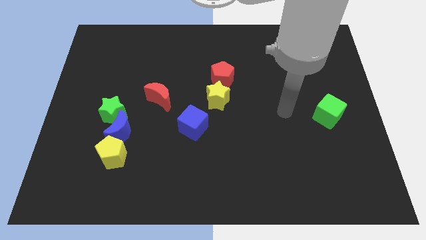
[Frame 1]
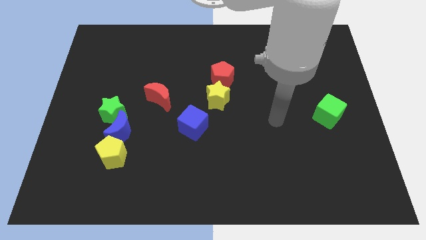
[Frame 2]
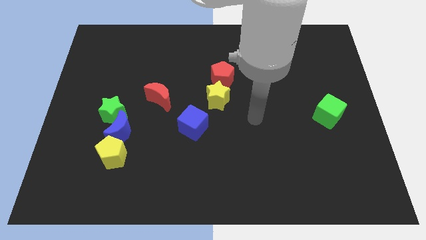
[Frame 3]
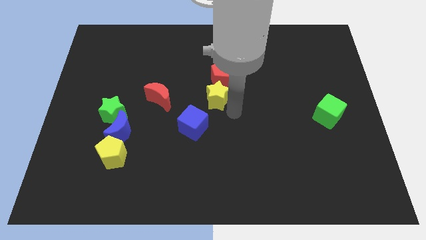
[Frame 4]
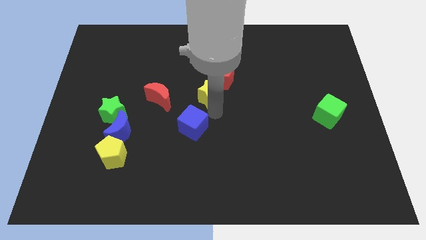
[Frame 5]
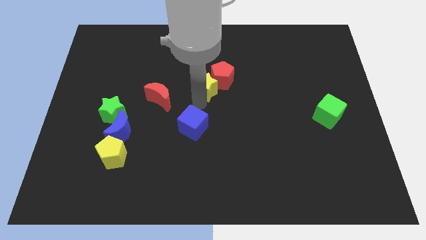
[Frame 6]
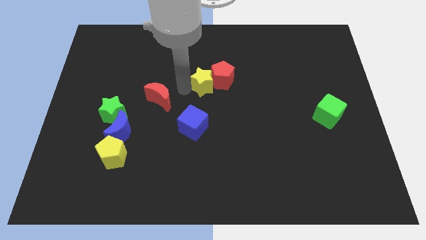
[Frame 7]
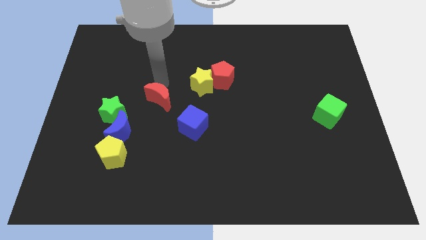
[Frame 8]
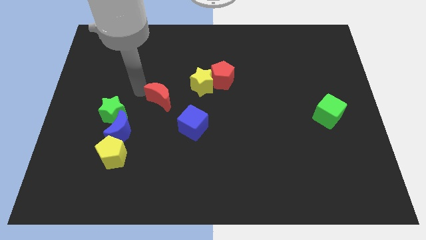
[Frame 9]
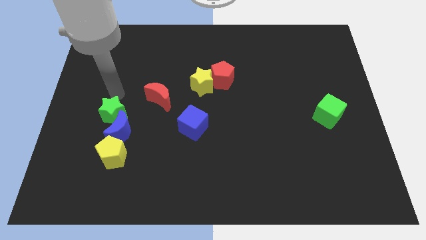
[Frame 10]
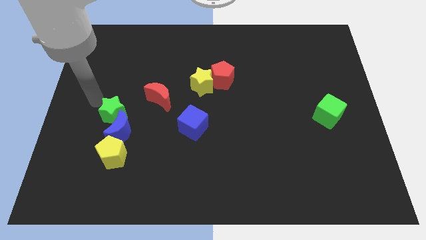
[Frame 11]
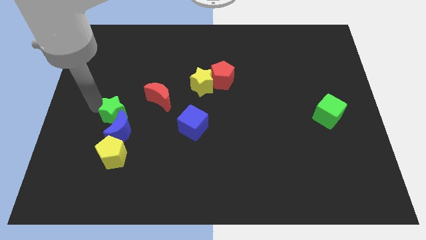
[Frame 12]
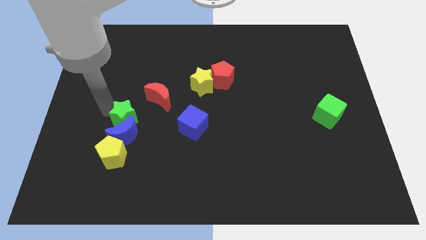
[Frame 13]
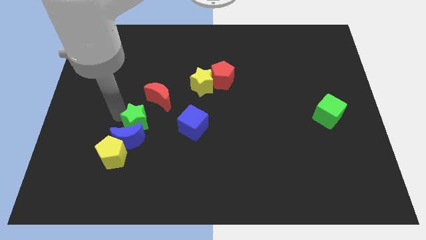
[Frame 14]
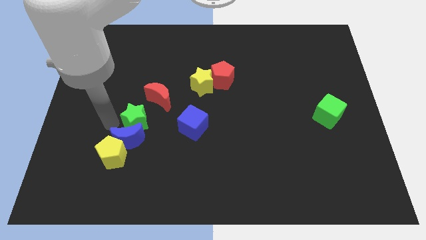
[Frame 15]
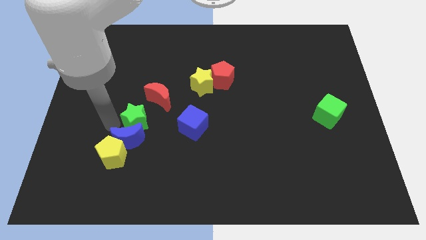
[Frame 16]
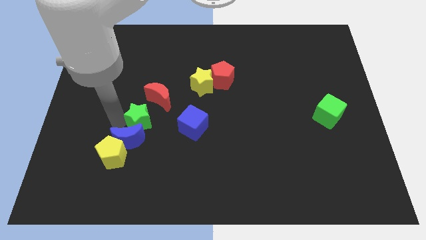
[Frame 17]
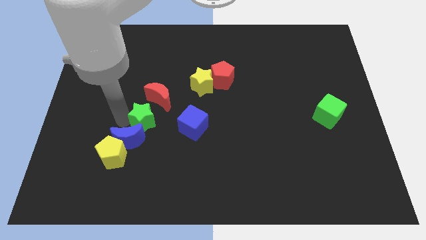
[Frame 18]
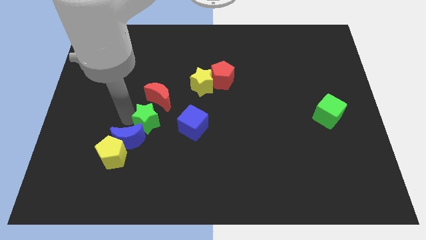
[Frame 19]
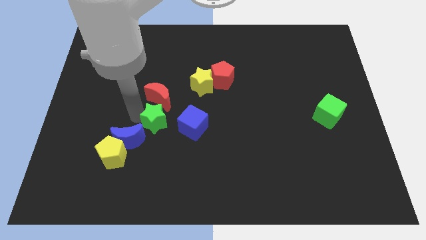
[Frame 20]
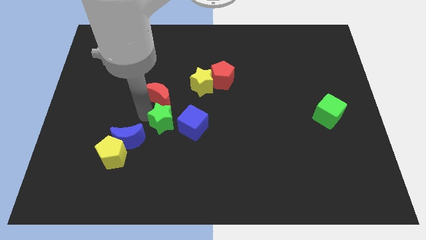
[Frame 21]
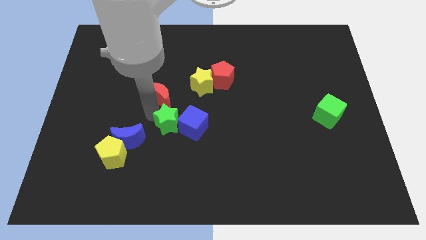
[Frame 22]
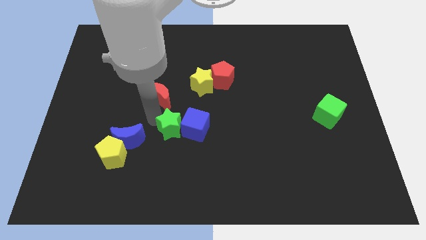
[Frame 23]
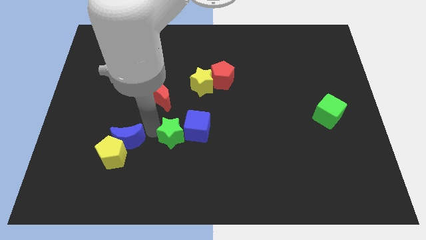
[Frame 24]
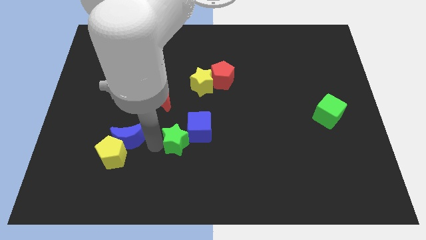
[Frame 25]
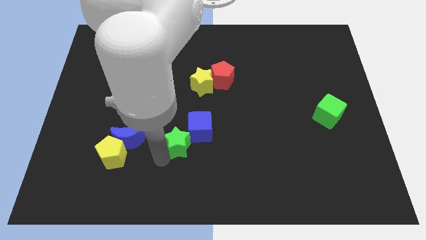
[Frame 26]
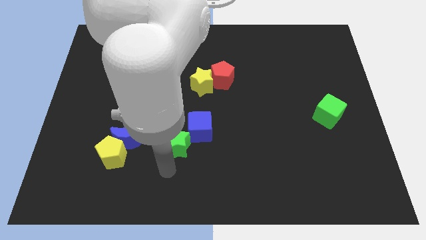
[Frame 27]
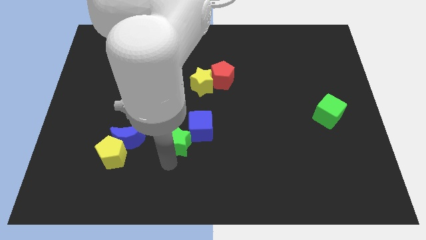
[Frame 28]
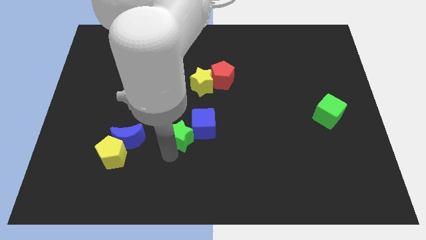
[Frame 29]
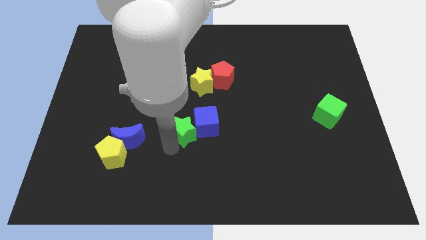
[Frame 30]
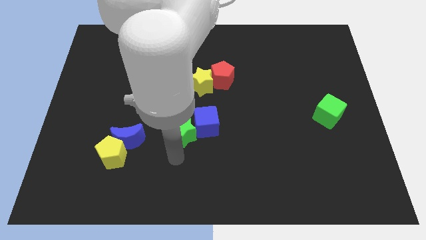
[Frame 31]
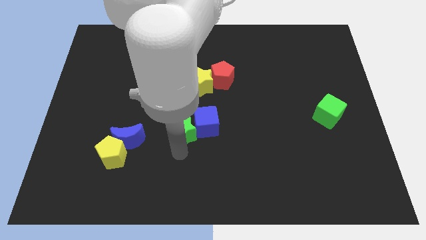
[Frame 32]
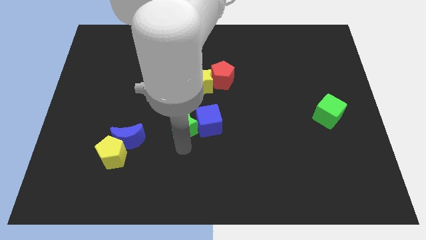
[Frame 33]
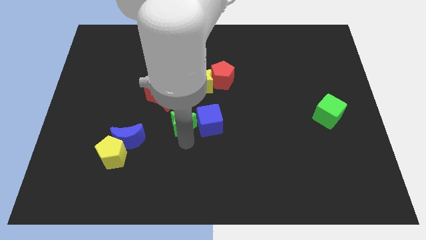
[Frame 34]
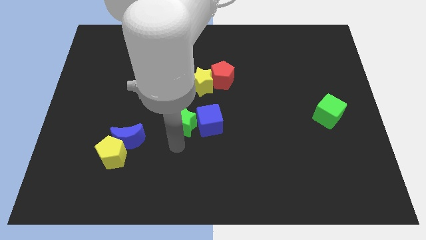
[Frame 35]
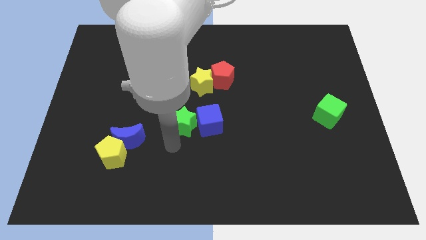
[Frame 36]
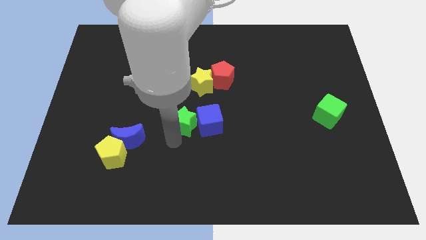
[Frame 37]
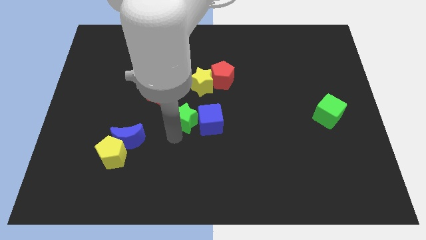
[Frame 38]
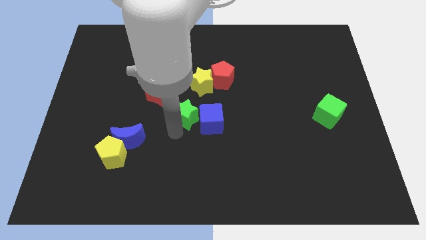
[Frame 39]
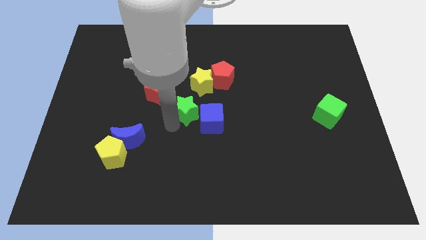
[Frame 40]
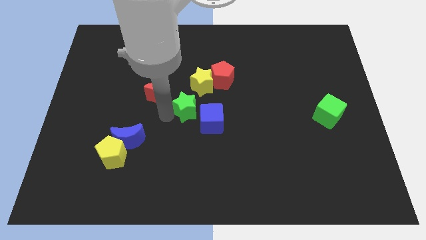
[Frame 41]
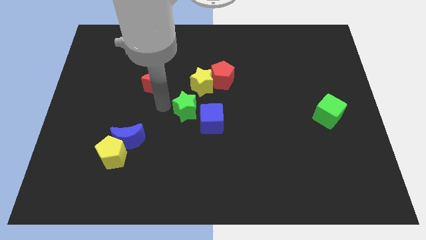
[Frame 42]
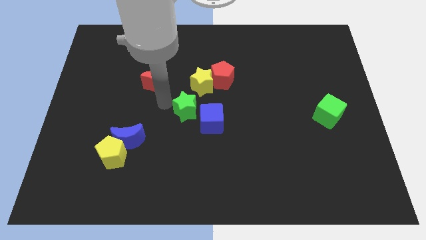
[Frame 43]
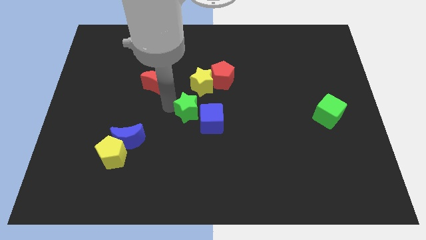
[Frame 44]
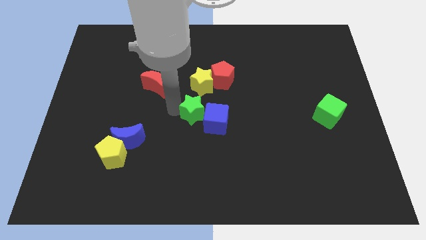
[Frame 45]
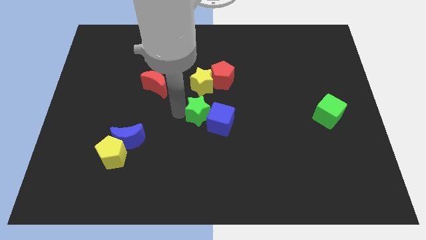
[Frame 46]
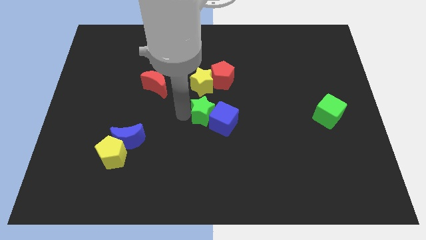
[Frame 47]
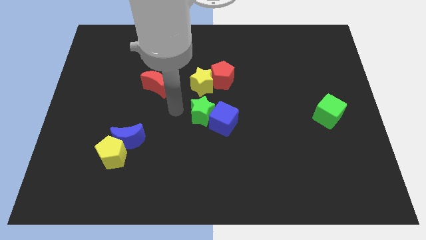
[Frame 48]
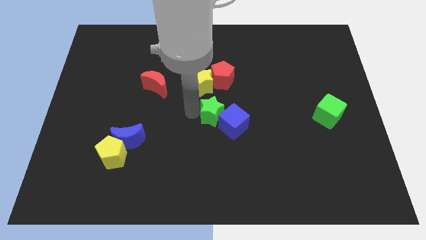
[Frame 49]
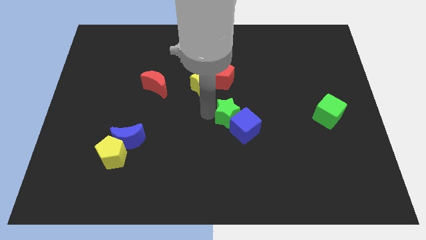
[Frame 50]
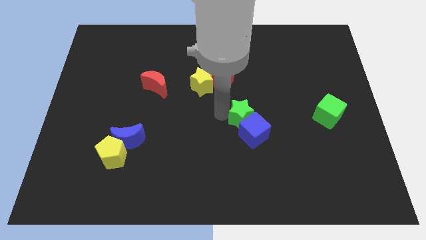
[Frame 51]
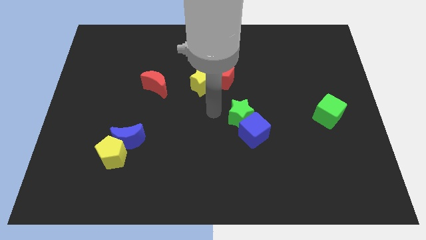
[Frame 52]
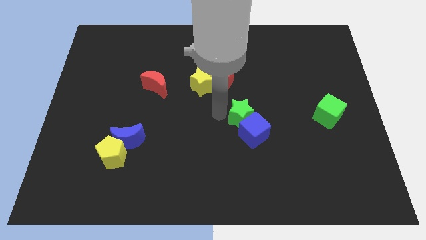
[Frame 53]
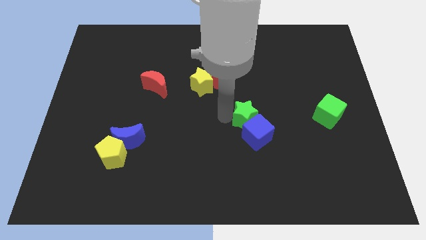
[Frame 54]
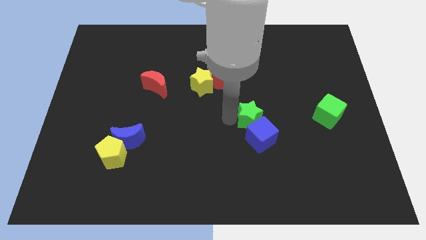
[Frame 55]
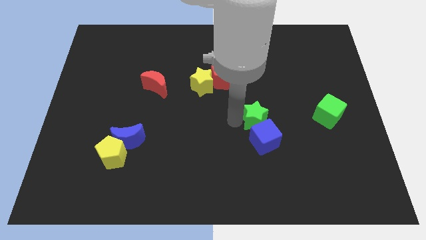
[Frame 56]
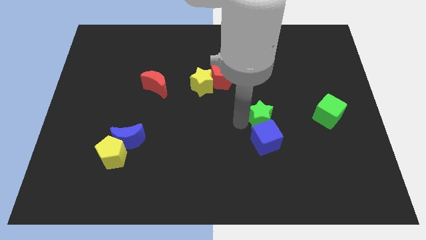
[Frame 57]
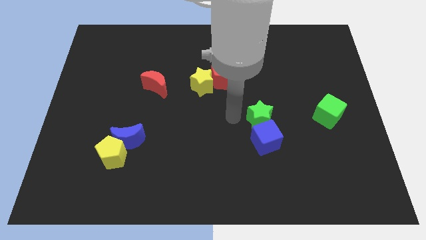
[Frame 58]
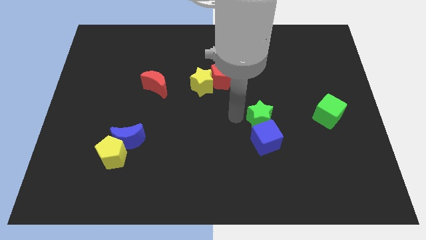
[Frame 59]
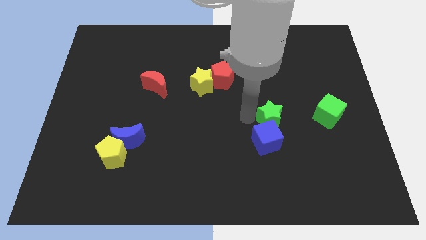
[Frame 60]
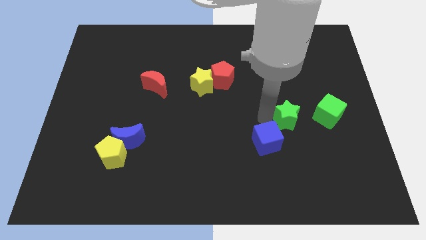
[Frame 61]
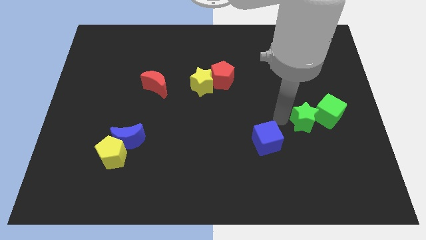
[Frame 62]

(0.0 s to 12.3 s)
move the green star towards the green cube

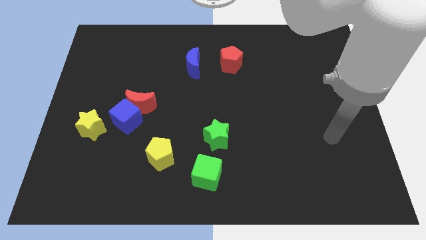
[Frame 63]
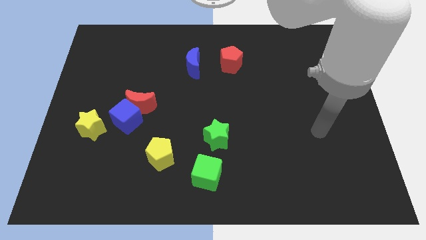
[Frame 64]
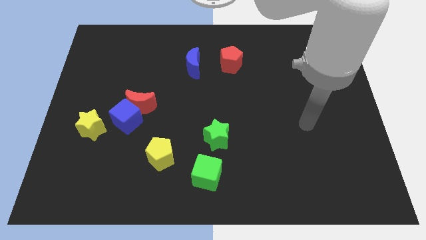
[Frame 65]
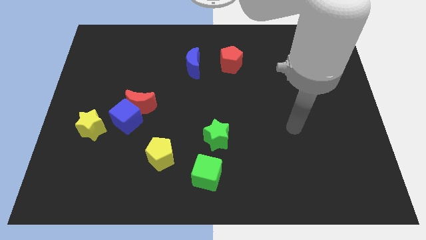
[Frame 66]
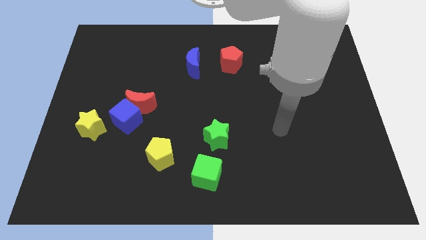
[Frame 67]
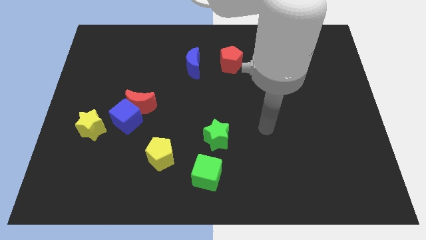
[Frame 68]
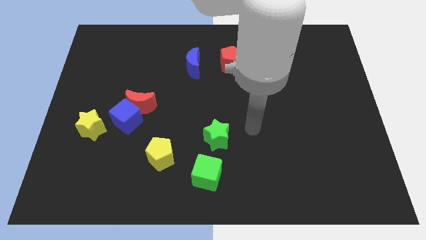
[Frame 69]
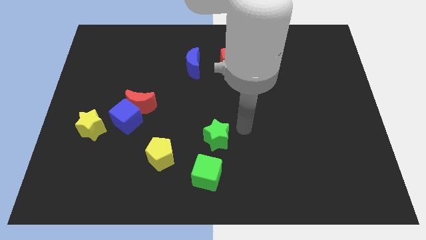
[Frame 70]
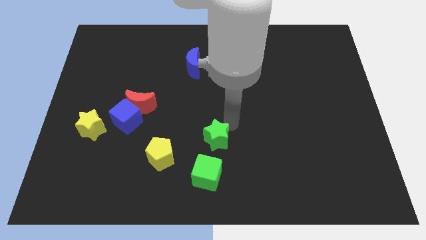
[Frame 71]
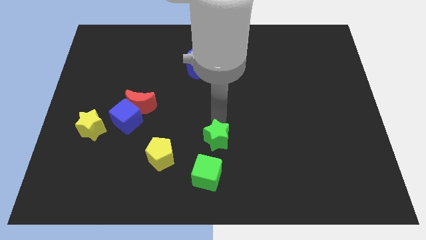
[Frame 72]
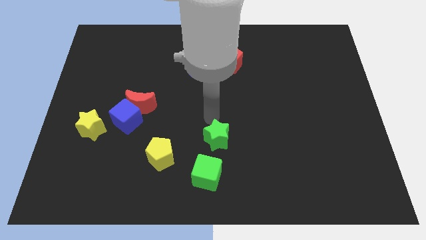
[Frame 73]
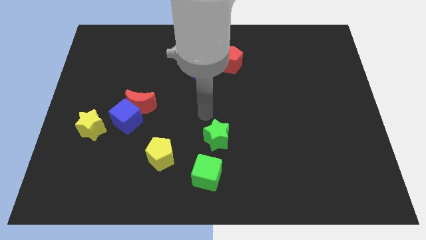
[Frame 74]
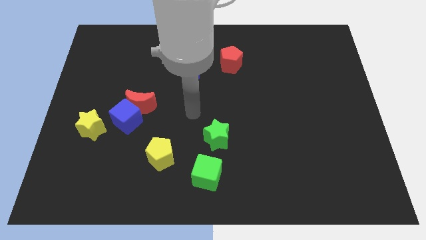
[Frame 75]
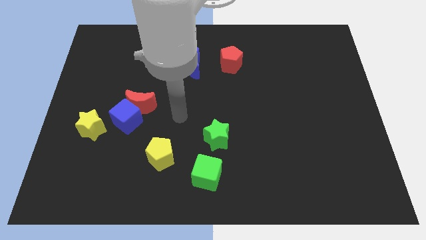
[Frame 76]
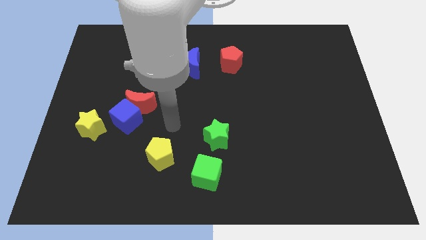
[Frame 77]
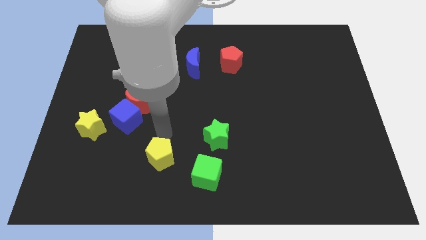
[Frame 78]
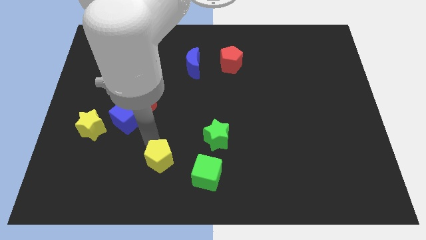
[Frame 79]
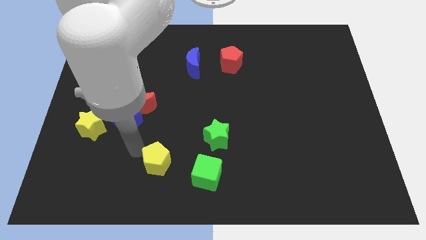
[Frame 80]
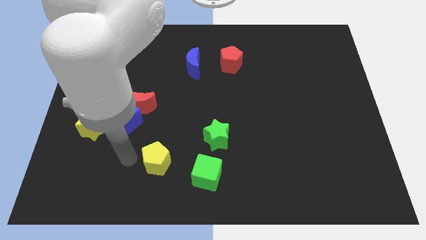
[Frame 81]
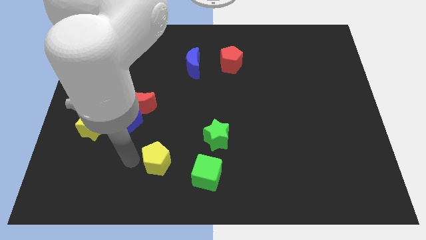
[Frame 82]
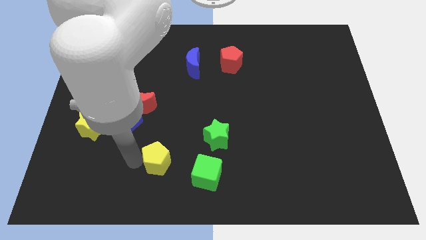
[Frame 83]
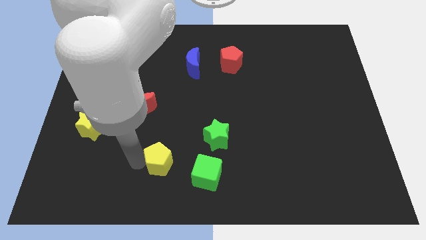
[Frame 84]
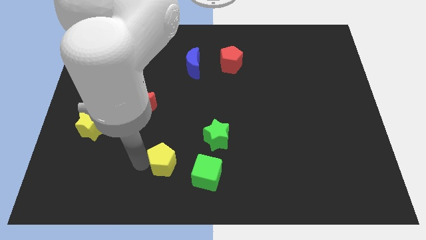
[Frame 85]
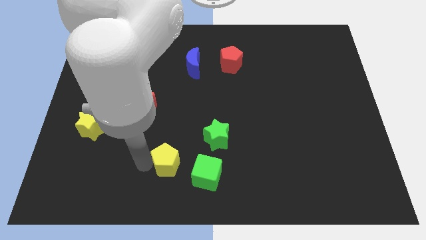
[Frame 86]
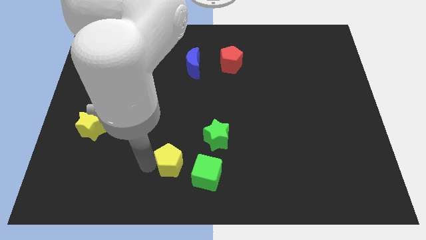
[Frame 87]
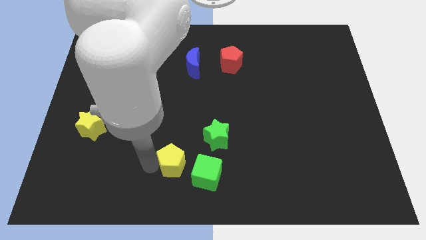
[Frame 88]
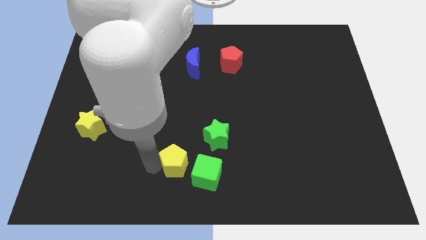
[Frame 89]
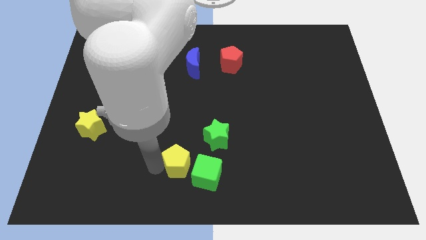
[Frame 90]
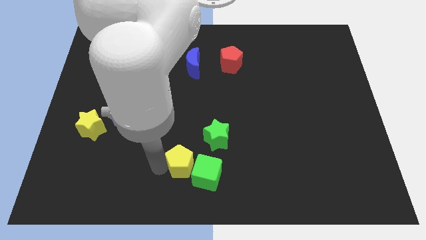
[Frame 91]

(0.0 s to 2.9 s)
push the yellow pentagon towards the green cube
